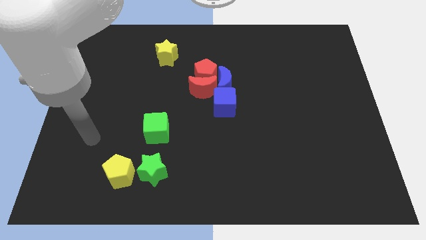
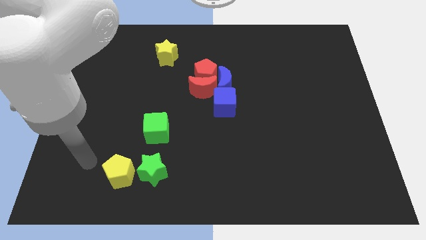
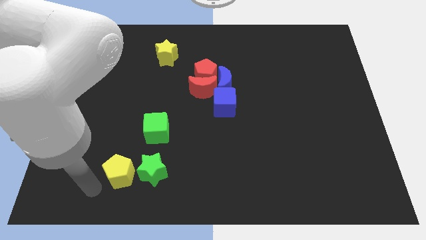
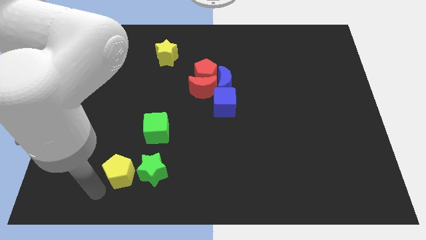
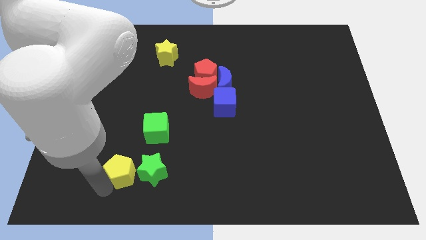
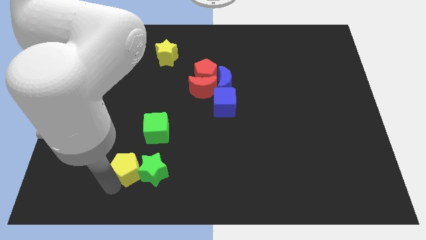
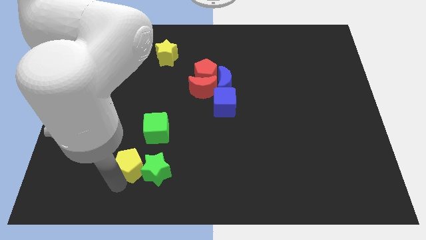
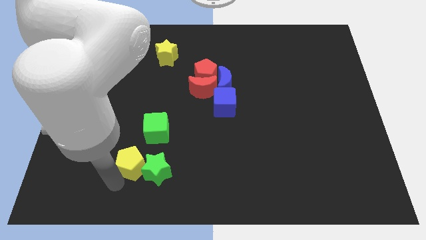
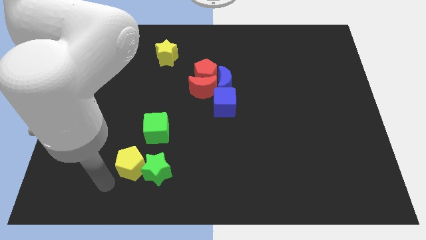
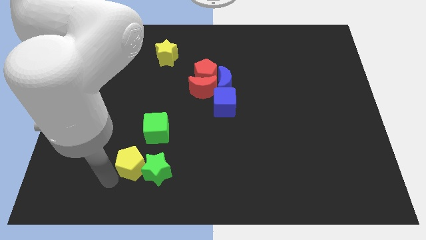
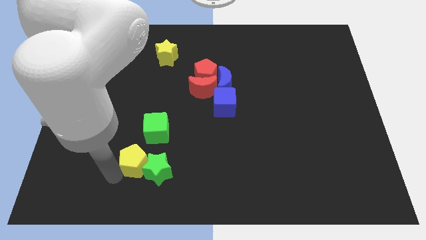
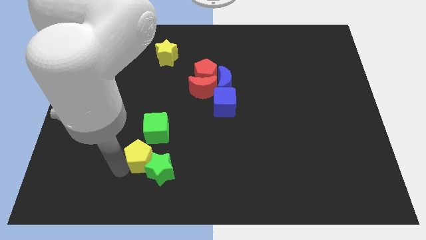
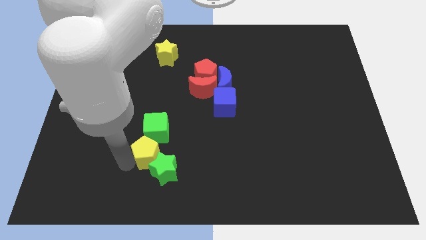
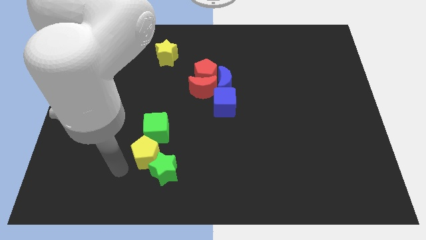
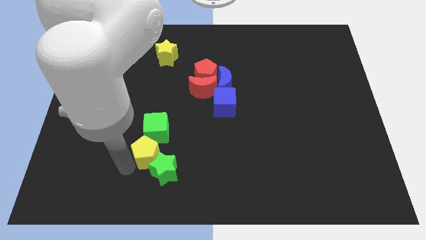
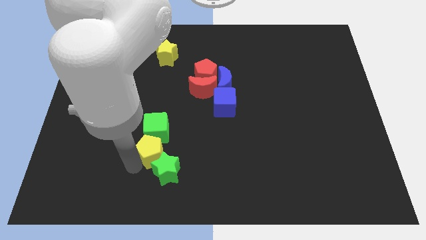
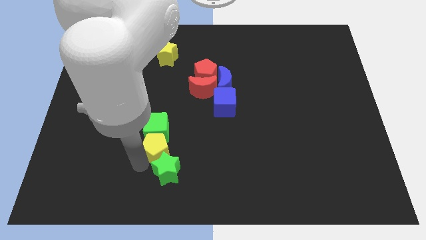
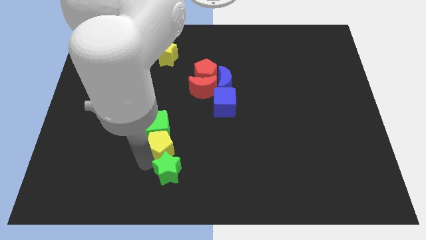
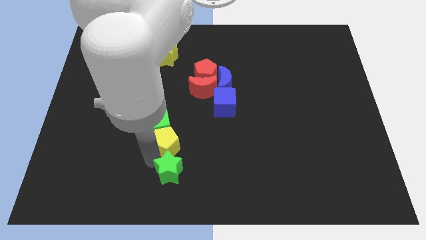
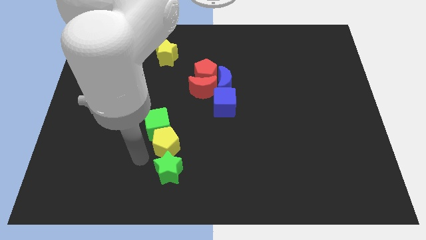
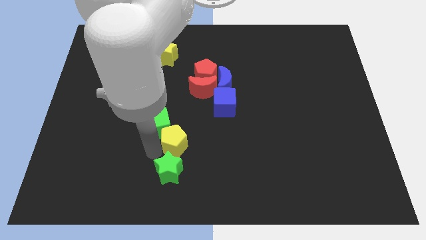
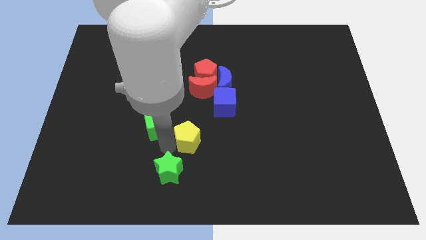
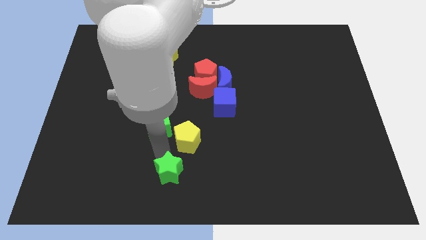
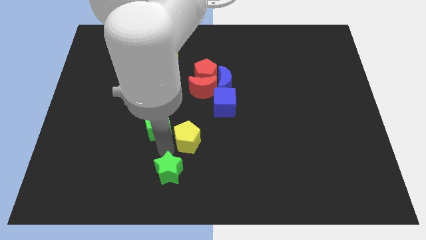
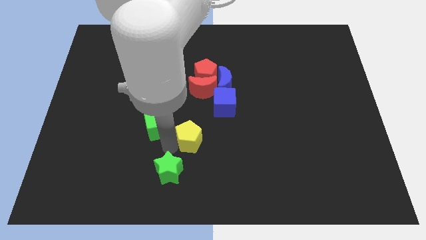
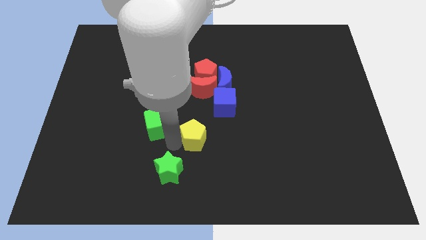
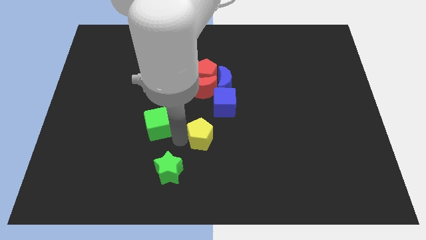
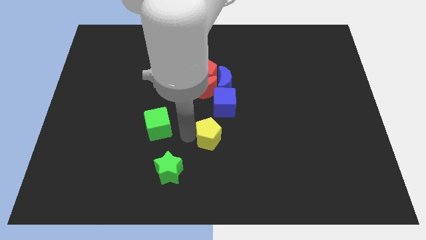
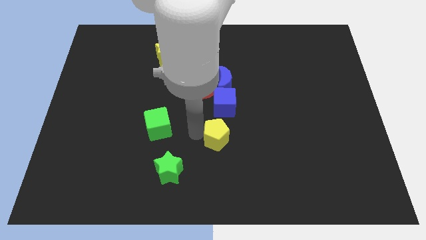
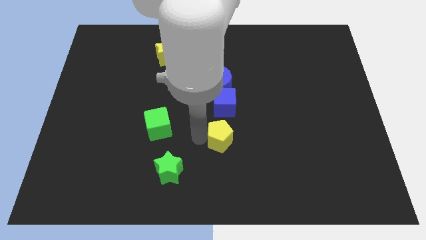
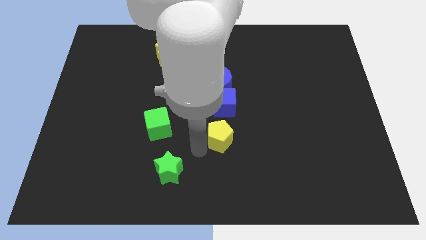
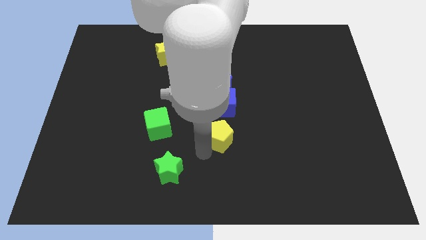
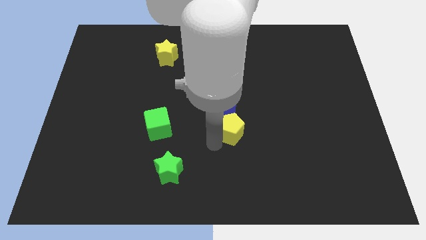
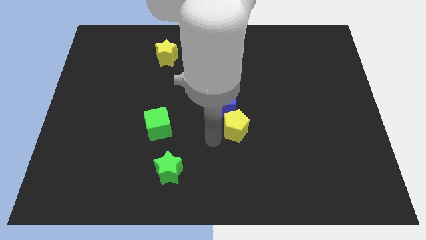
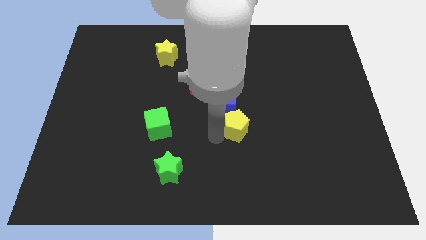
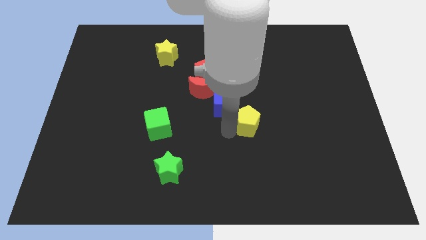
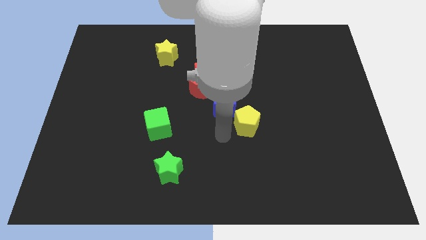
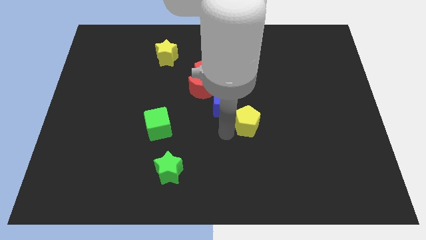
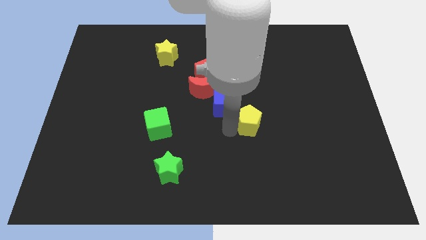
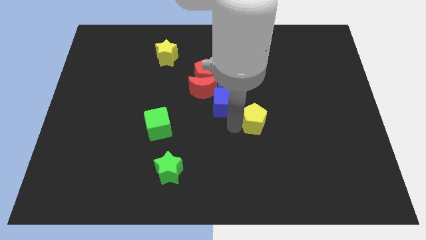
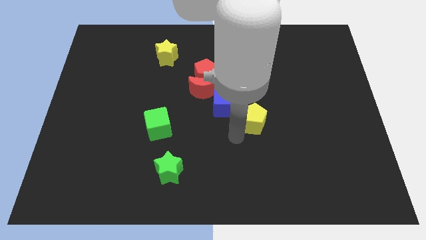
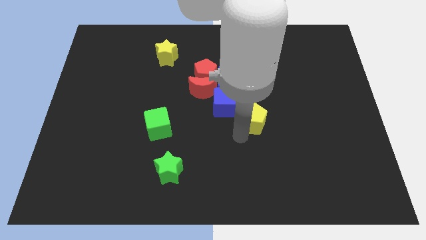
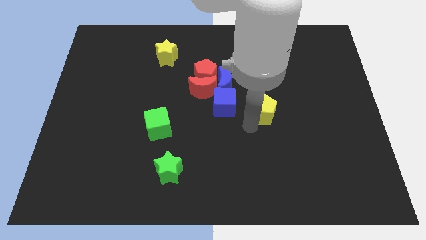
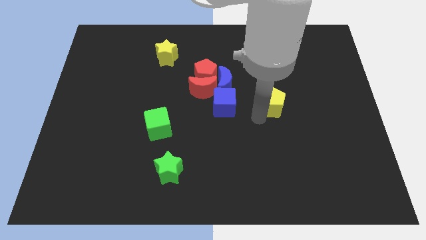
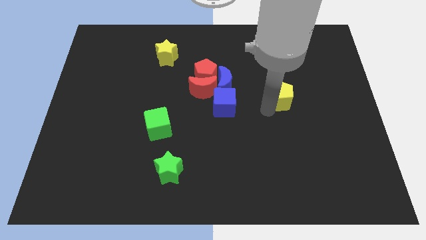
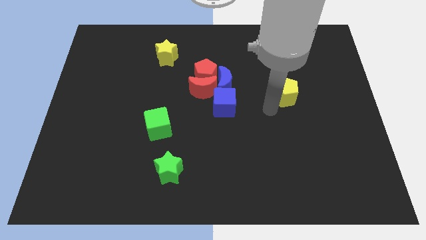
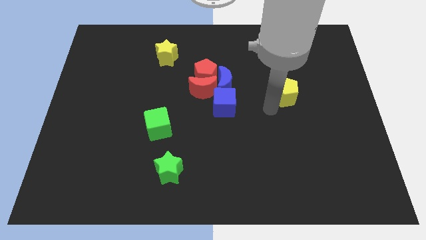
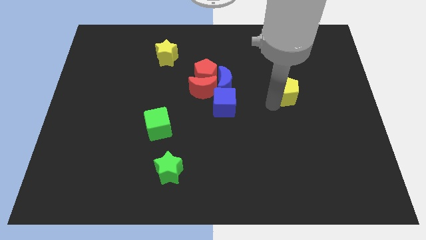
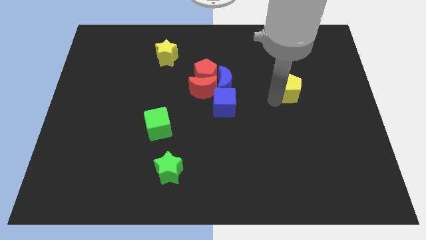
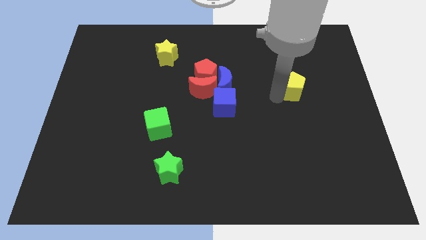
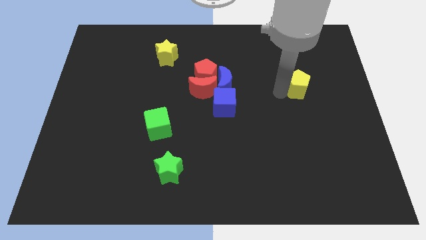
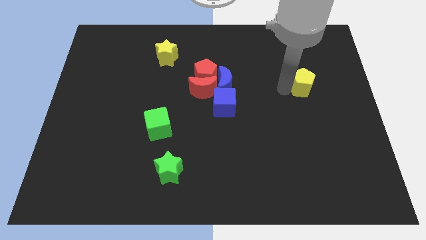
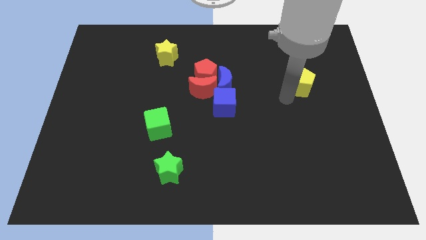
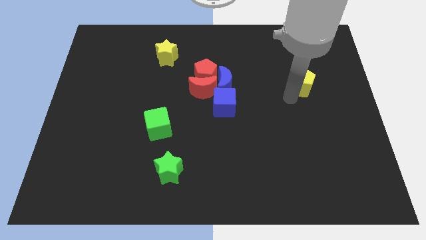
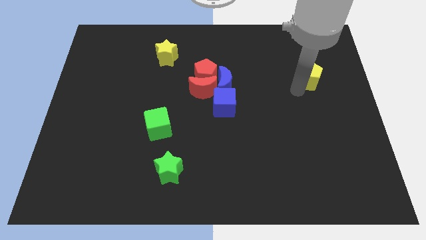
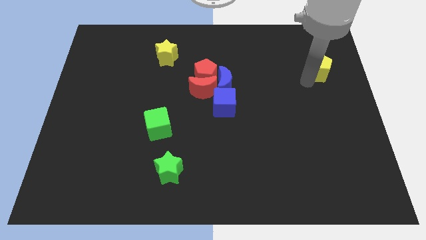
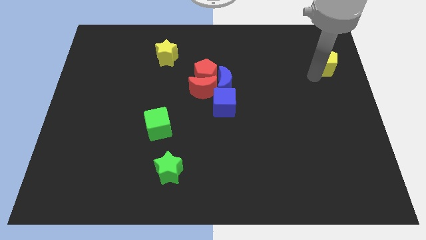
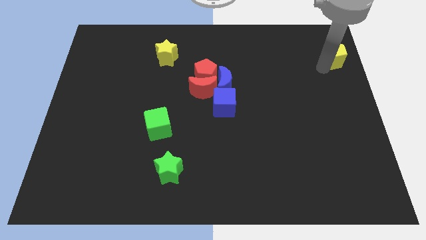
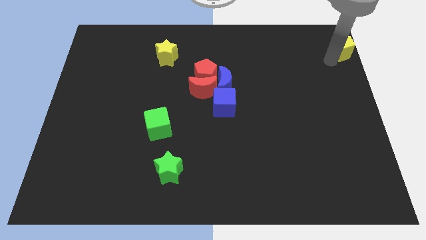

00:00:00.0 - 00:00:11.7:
move the yellow pentagon to the upper right corner
